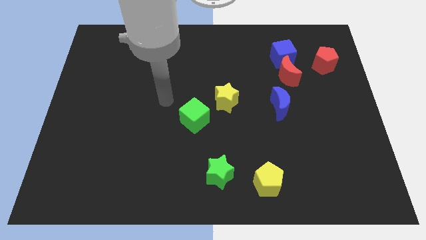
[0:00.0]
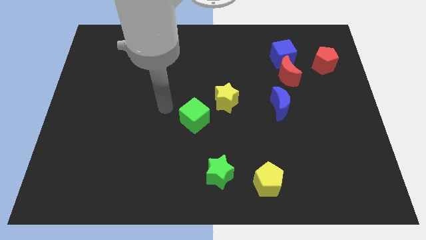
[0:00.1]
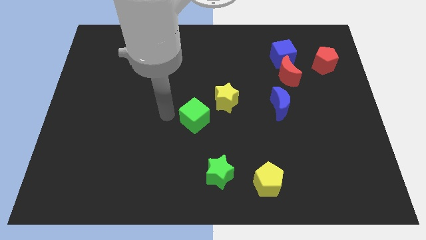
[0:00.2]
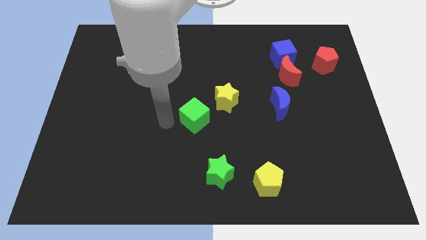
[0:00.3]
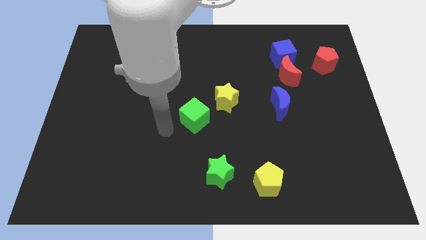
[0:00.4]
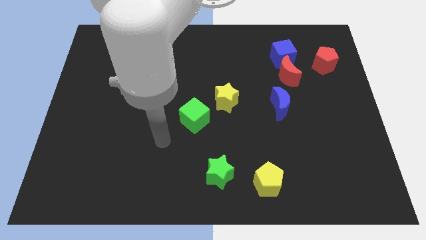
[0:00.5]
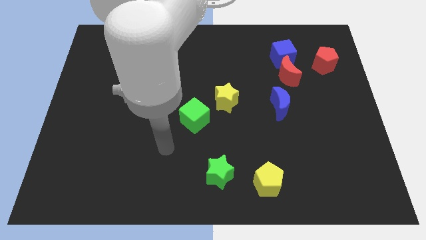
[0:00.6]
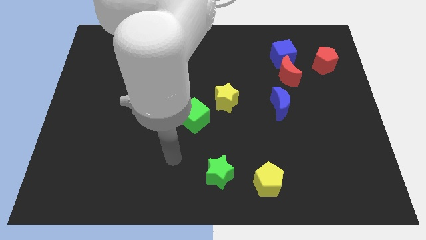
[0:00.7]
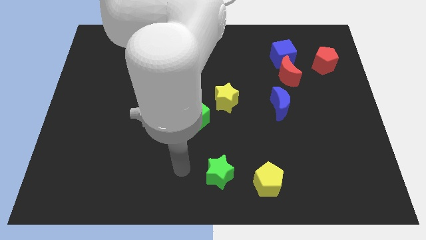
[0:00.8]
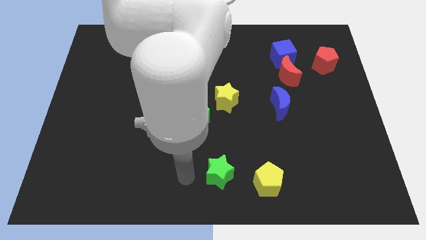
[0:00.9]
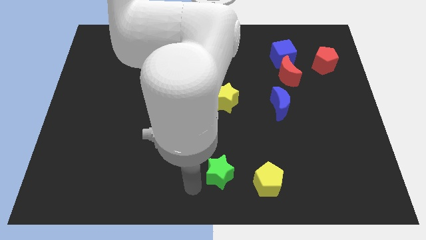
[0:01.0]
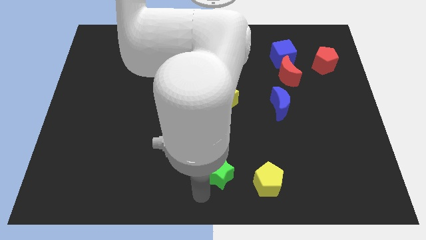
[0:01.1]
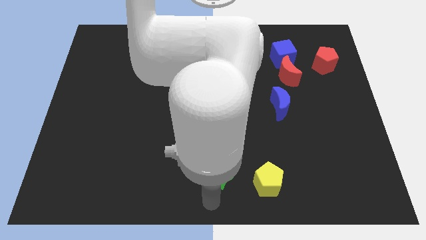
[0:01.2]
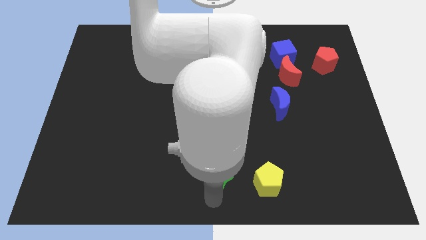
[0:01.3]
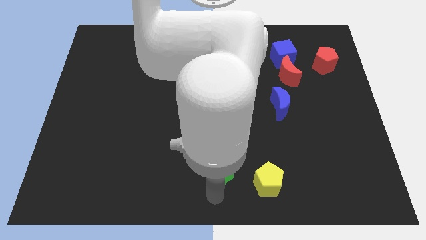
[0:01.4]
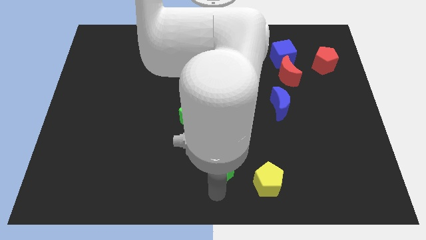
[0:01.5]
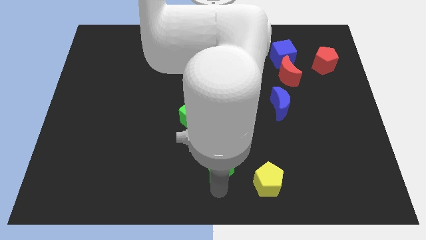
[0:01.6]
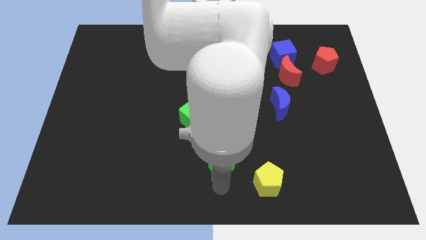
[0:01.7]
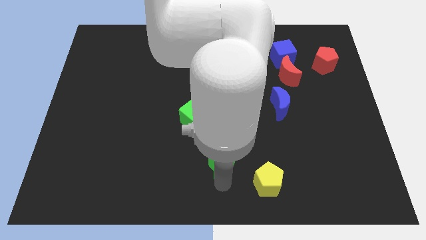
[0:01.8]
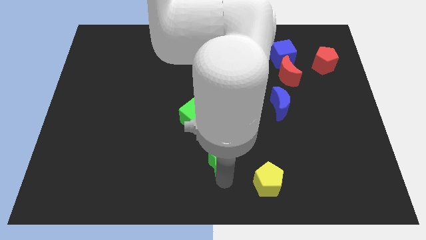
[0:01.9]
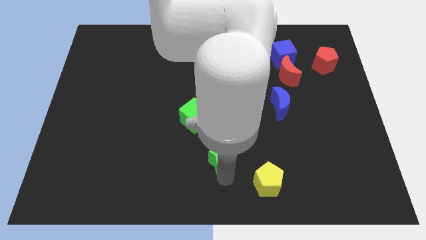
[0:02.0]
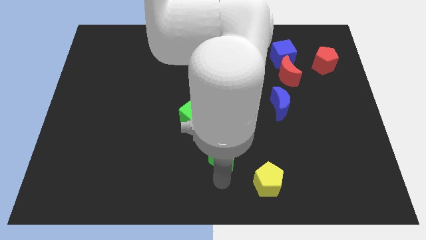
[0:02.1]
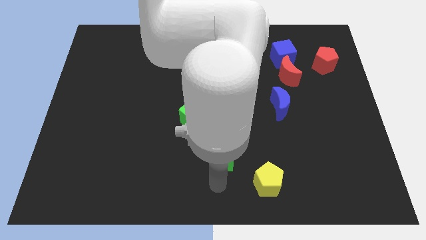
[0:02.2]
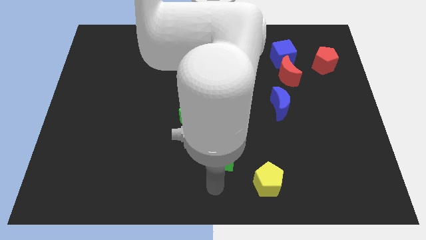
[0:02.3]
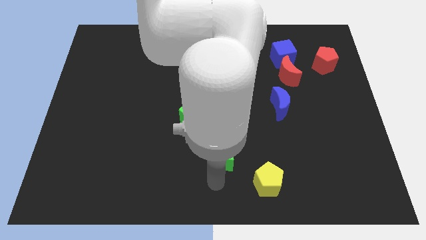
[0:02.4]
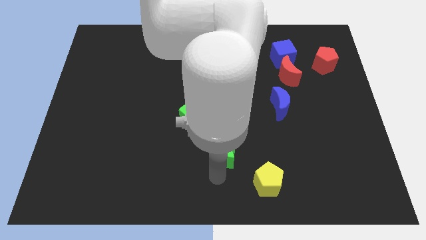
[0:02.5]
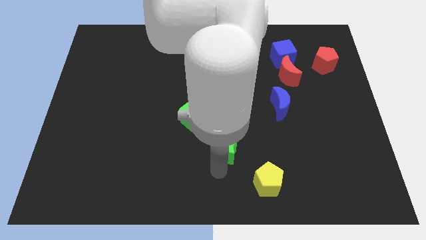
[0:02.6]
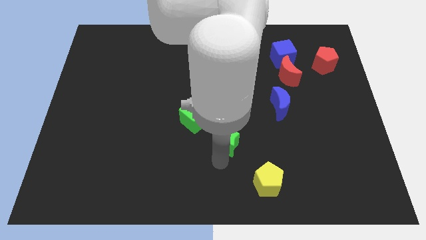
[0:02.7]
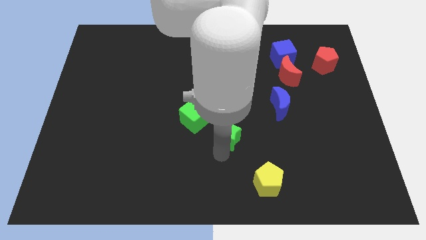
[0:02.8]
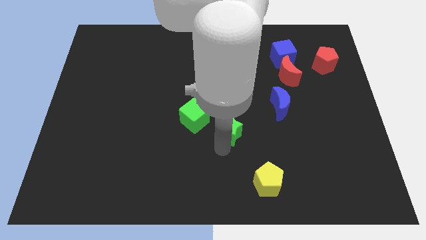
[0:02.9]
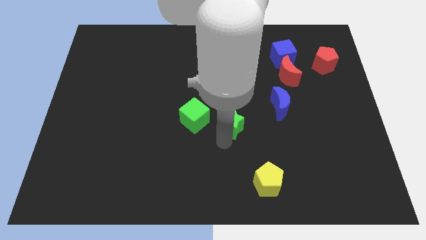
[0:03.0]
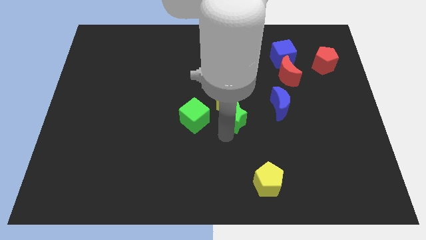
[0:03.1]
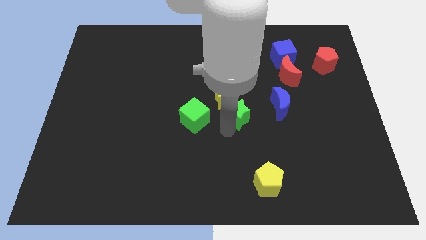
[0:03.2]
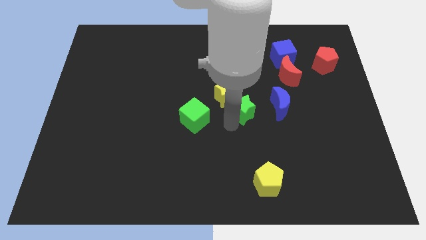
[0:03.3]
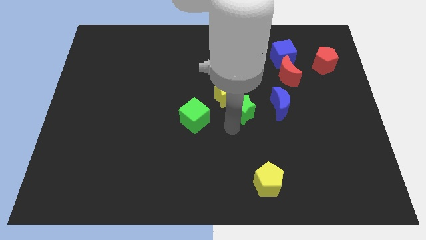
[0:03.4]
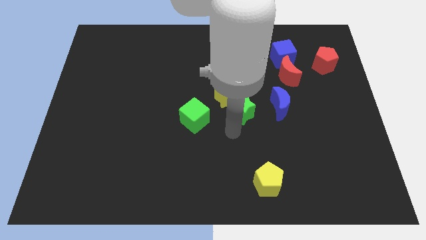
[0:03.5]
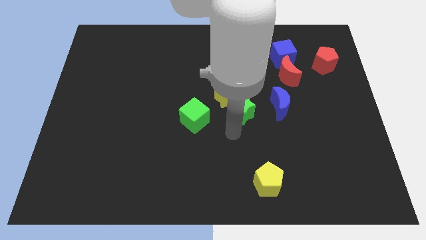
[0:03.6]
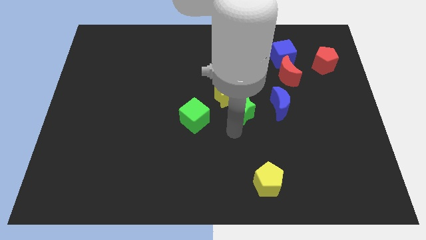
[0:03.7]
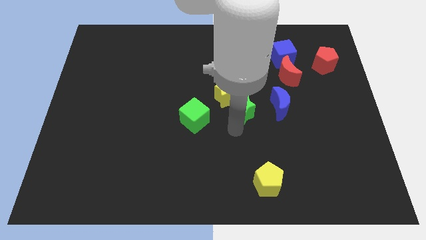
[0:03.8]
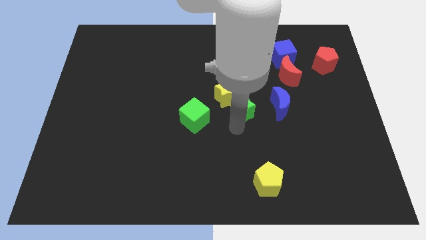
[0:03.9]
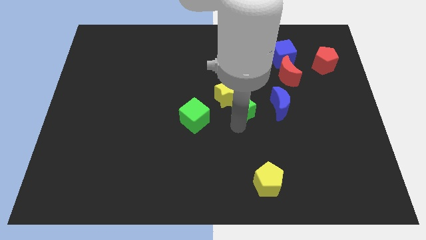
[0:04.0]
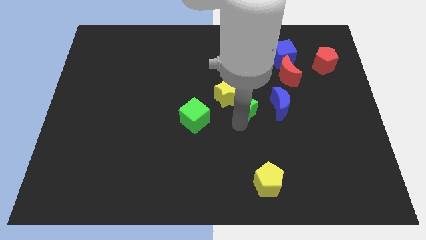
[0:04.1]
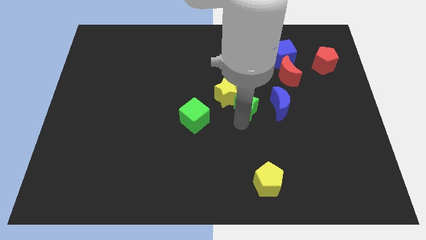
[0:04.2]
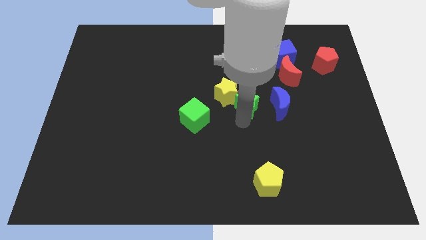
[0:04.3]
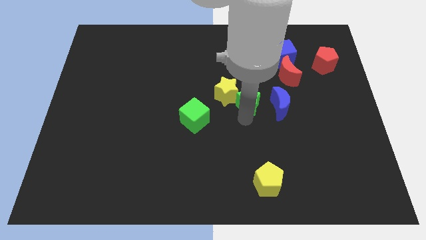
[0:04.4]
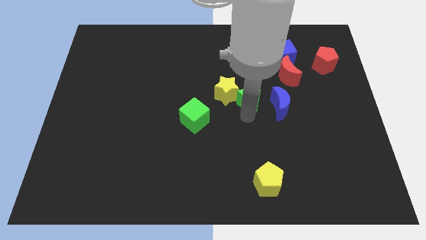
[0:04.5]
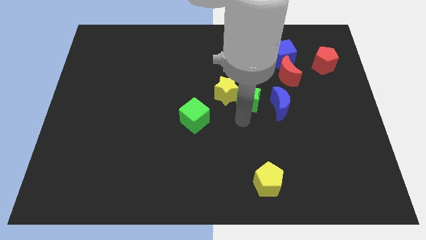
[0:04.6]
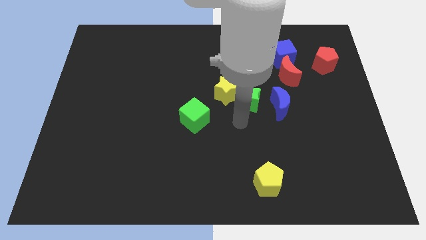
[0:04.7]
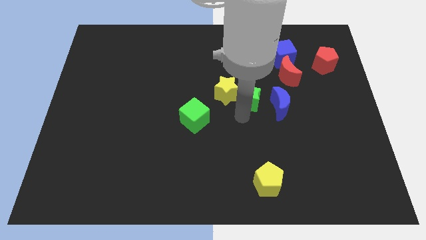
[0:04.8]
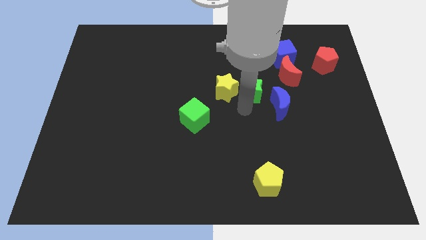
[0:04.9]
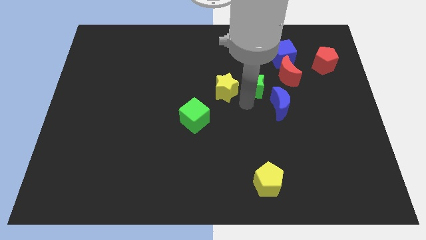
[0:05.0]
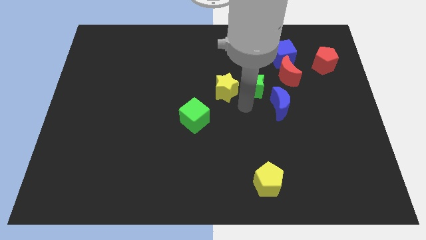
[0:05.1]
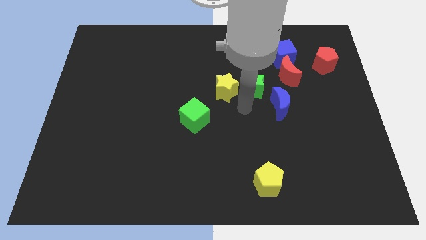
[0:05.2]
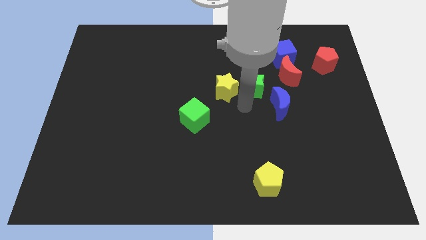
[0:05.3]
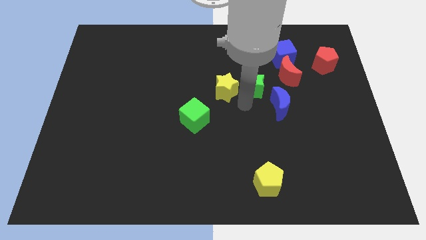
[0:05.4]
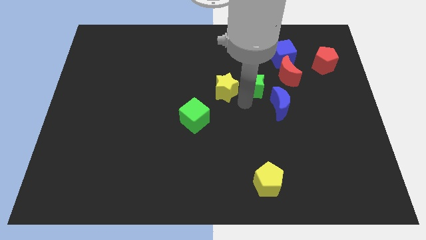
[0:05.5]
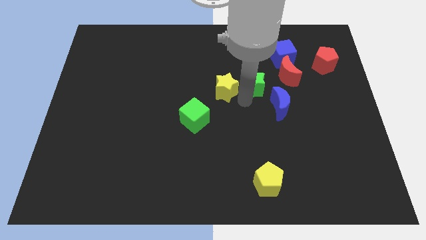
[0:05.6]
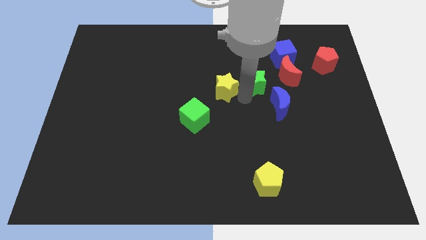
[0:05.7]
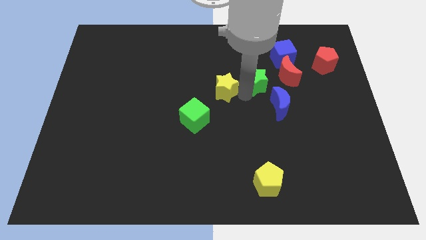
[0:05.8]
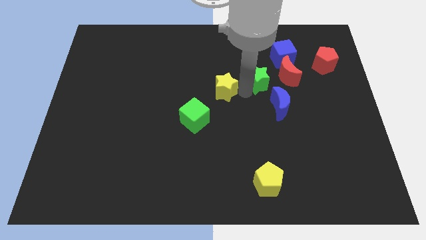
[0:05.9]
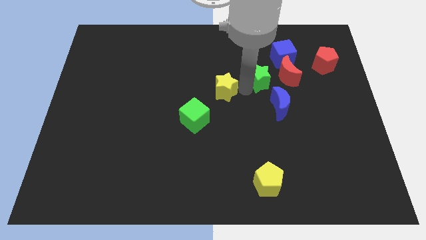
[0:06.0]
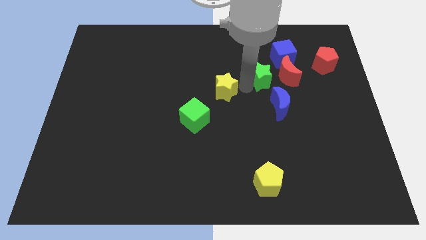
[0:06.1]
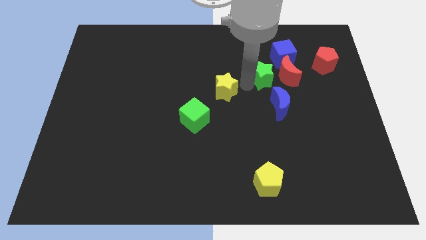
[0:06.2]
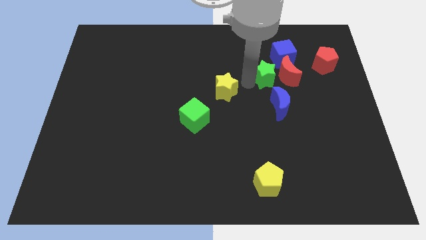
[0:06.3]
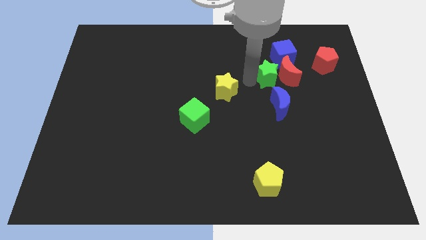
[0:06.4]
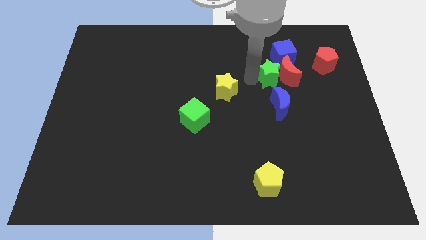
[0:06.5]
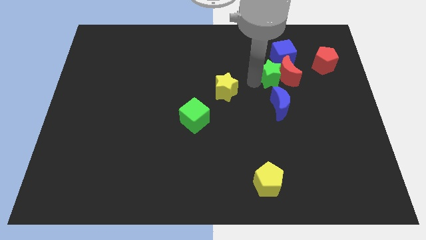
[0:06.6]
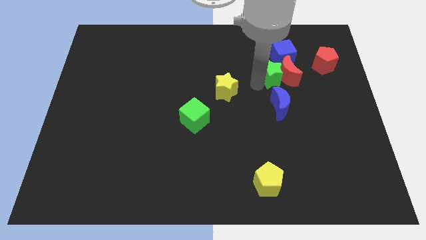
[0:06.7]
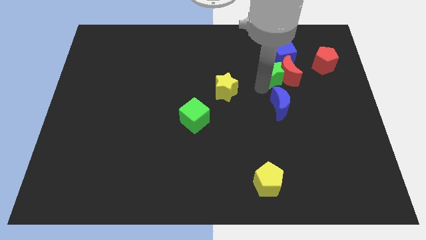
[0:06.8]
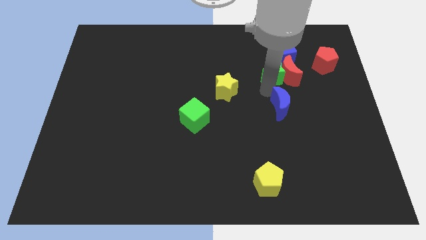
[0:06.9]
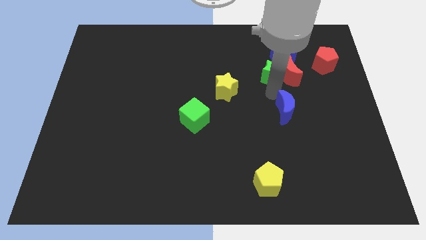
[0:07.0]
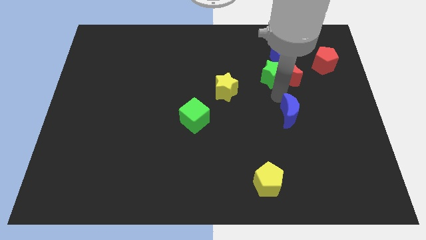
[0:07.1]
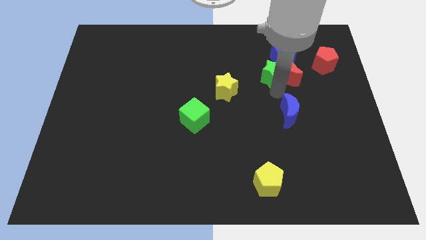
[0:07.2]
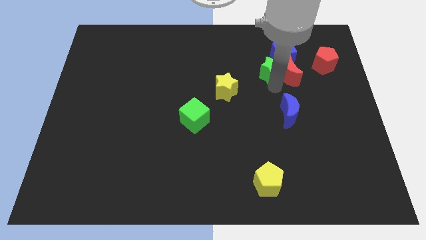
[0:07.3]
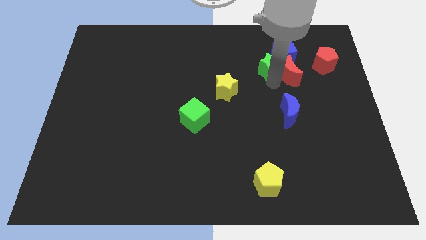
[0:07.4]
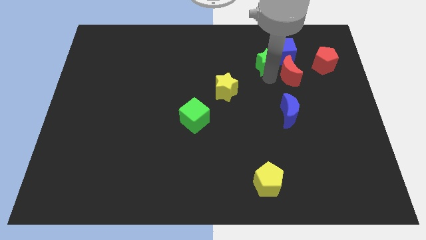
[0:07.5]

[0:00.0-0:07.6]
move the green star next to the blue cube

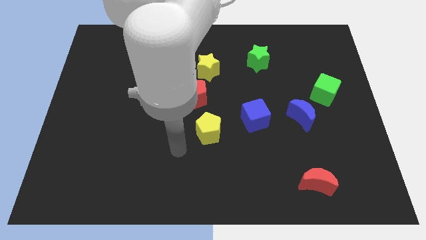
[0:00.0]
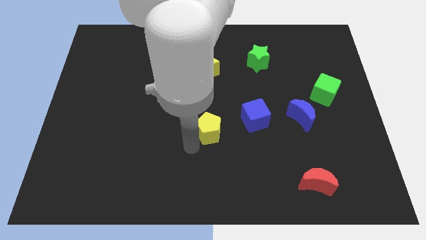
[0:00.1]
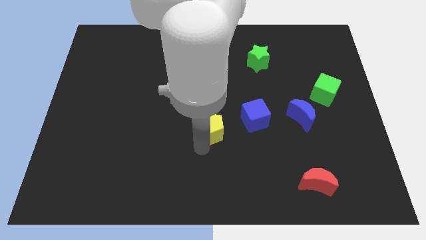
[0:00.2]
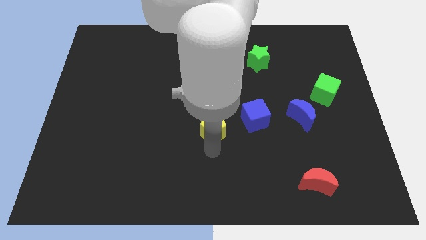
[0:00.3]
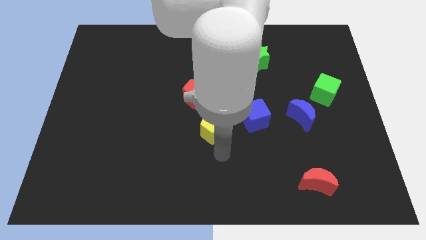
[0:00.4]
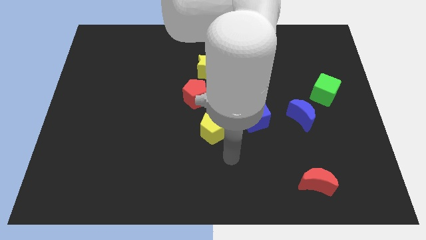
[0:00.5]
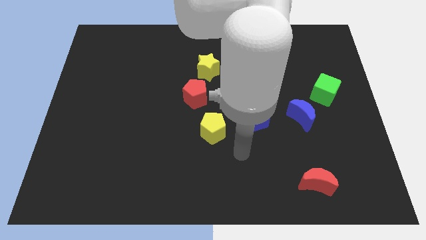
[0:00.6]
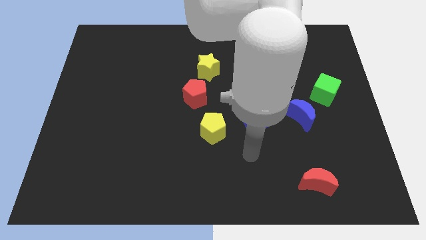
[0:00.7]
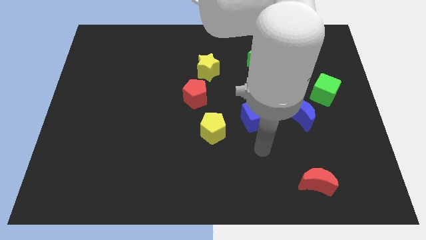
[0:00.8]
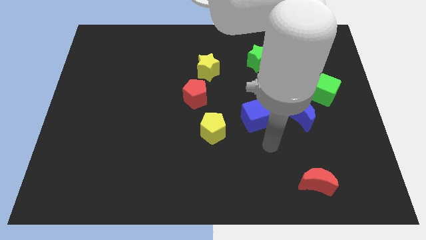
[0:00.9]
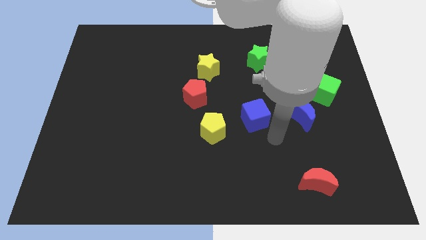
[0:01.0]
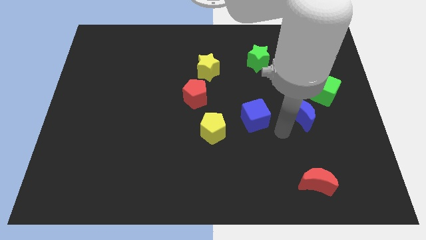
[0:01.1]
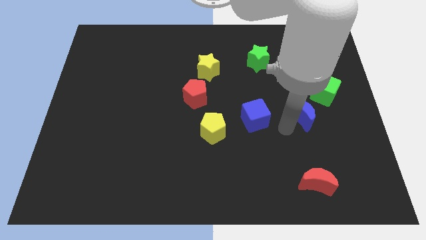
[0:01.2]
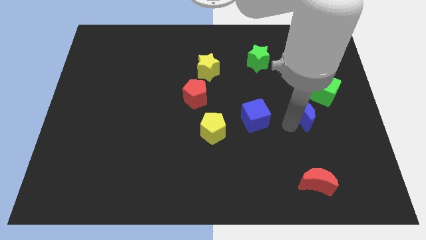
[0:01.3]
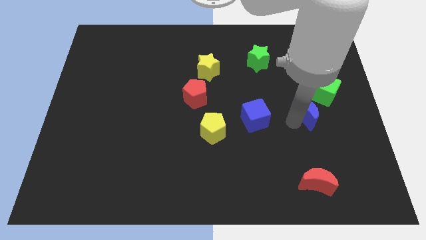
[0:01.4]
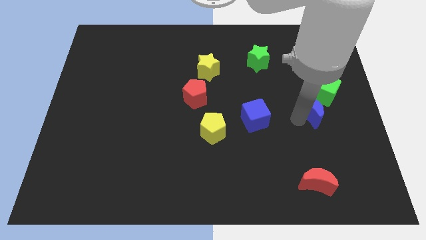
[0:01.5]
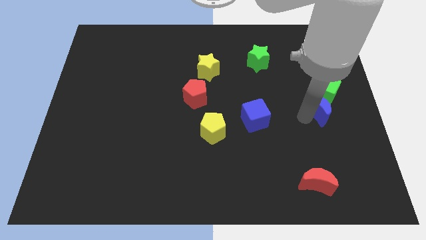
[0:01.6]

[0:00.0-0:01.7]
push the blue moon close to the green cube
